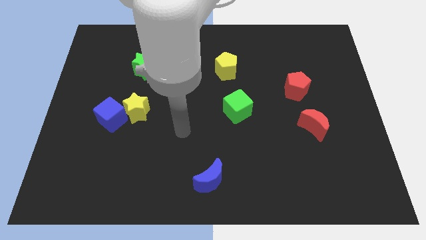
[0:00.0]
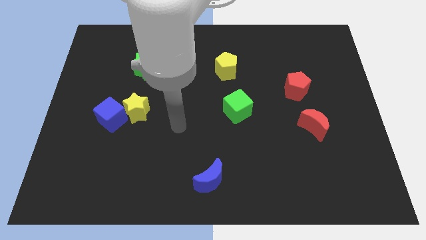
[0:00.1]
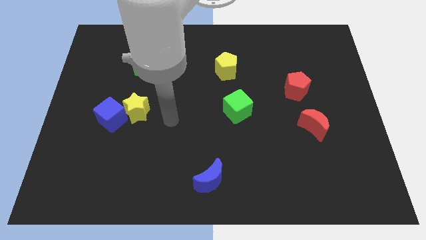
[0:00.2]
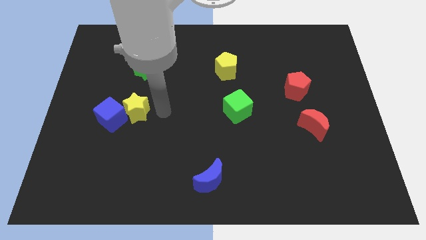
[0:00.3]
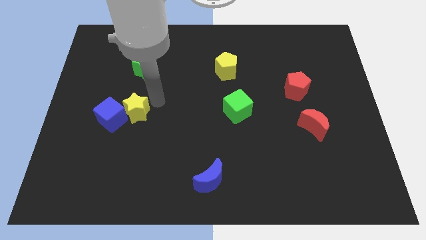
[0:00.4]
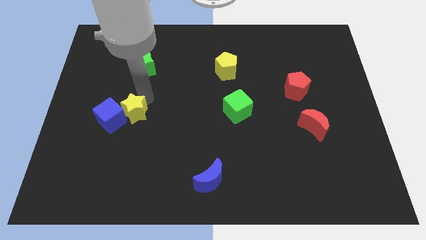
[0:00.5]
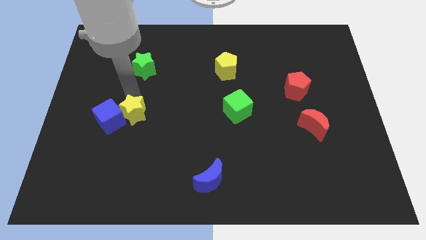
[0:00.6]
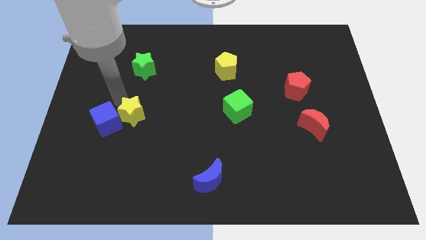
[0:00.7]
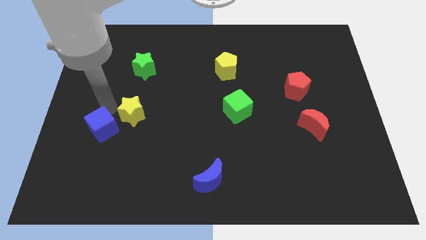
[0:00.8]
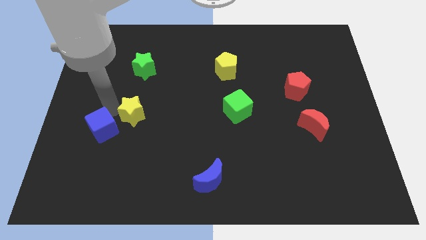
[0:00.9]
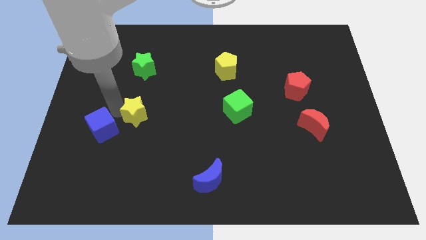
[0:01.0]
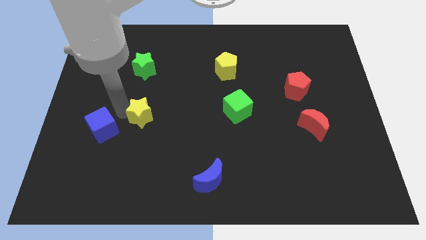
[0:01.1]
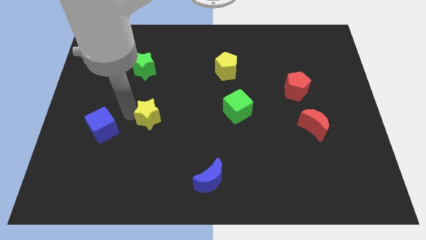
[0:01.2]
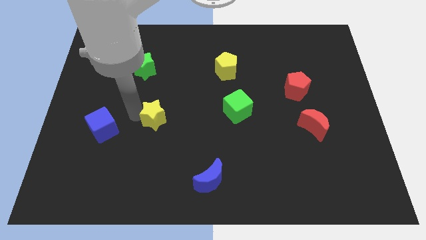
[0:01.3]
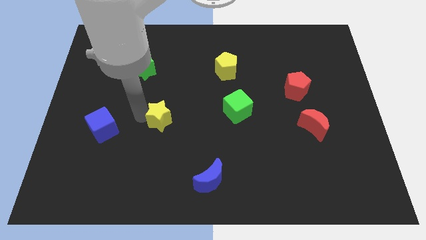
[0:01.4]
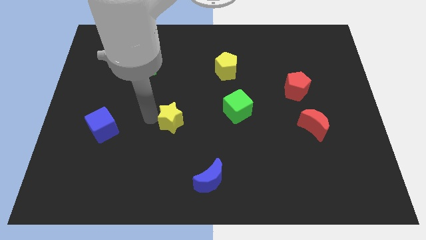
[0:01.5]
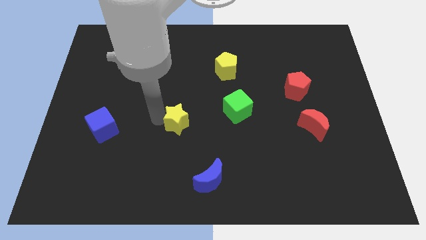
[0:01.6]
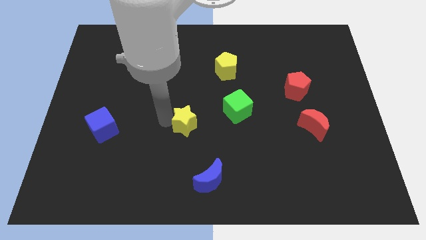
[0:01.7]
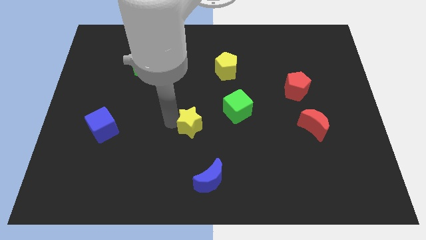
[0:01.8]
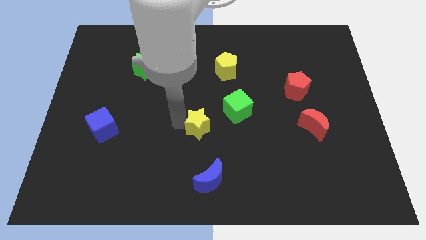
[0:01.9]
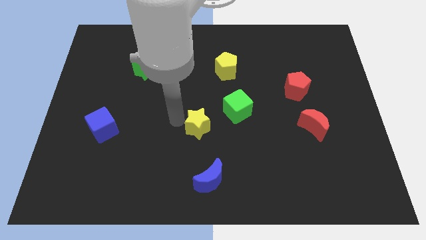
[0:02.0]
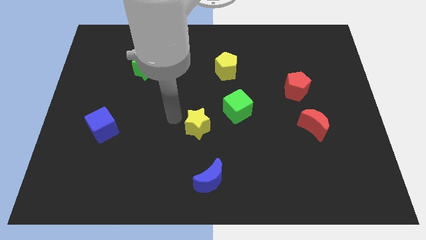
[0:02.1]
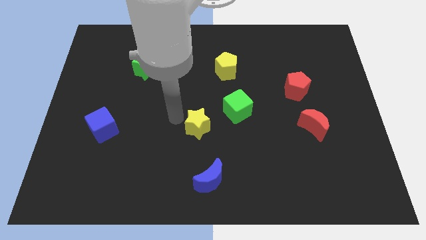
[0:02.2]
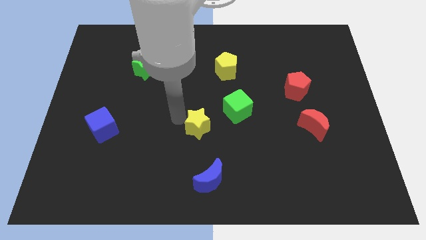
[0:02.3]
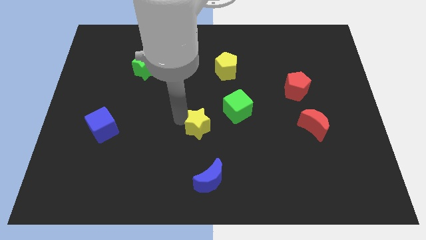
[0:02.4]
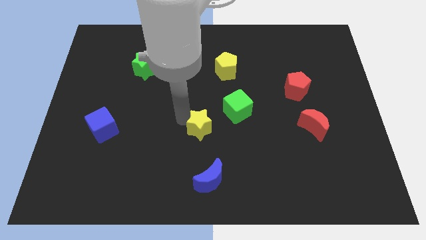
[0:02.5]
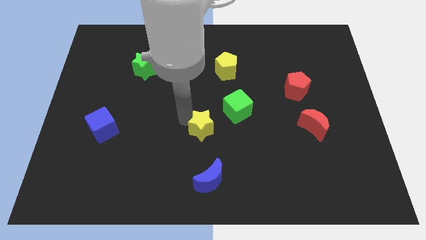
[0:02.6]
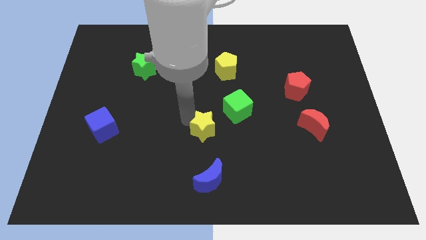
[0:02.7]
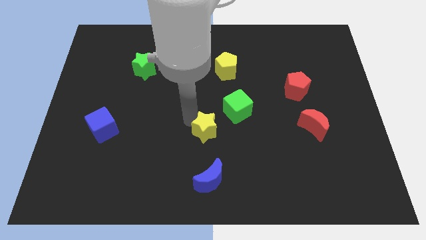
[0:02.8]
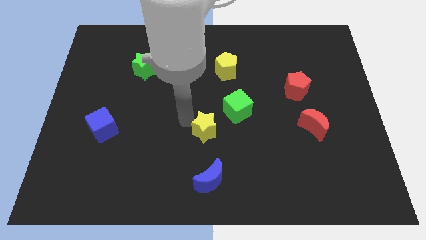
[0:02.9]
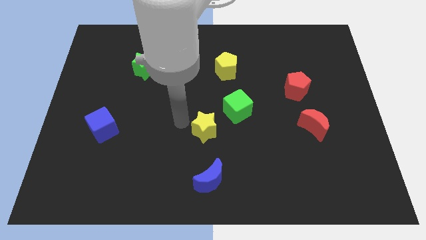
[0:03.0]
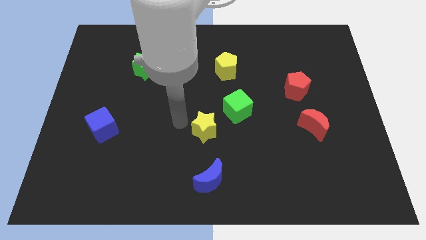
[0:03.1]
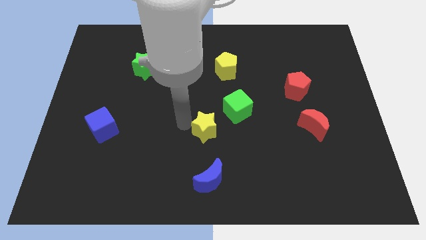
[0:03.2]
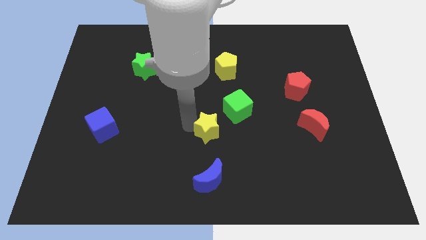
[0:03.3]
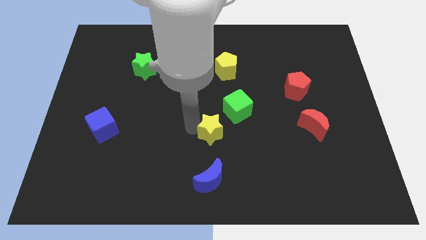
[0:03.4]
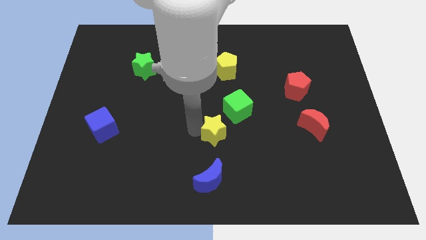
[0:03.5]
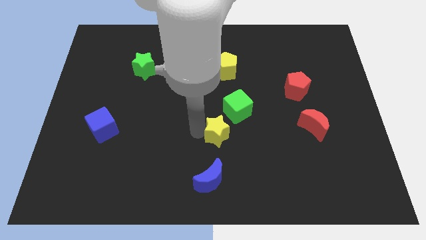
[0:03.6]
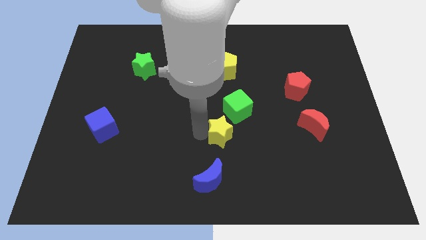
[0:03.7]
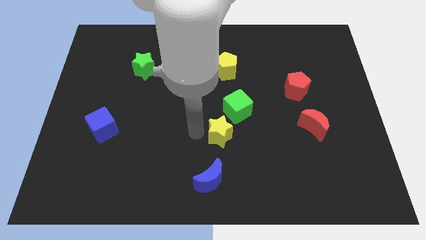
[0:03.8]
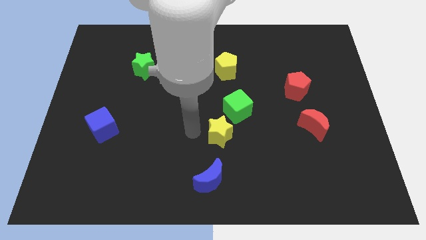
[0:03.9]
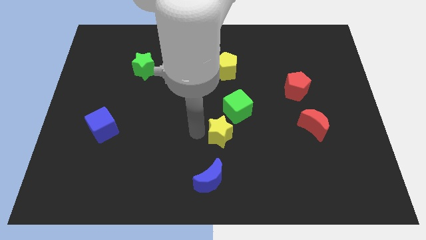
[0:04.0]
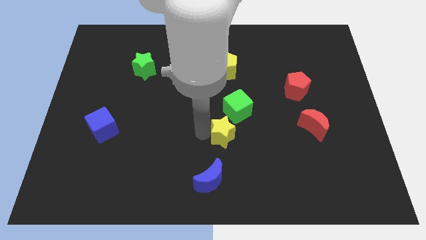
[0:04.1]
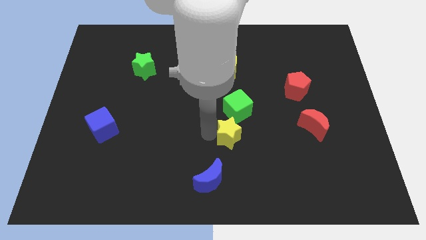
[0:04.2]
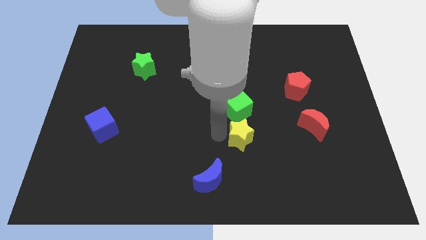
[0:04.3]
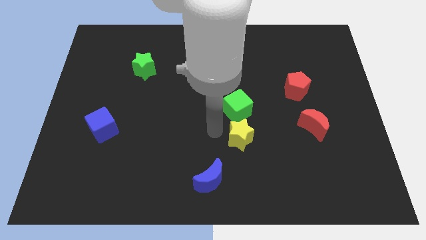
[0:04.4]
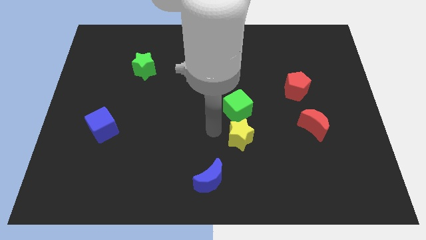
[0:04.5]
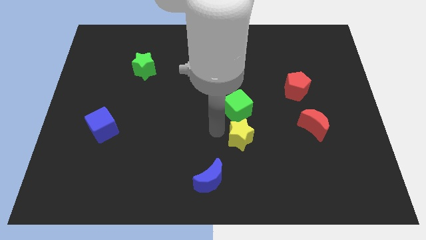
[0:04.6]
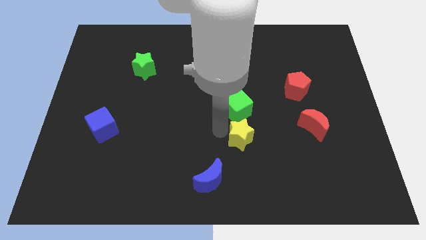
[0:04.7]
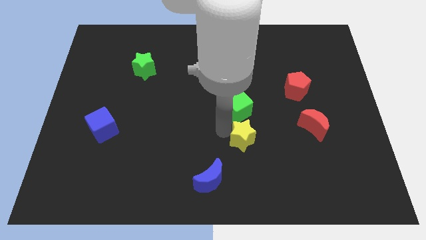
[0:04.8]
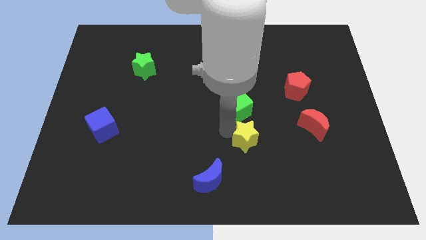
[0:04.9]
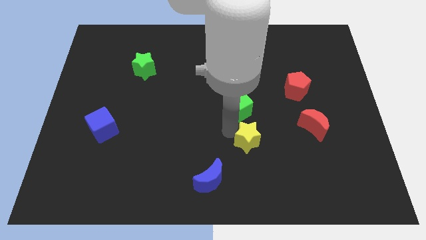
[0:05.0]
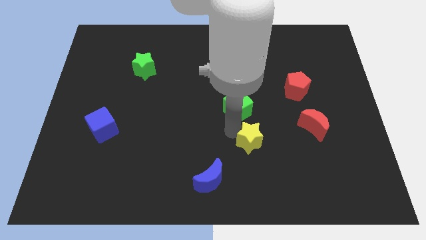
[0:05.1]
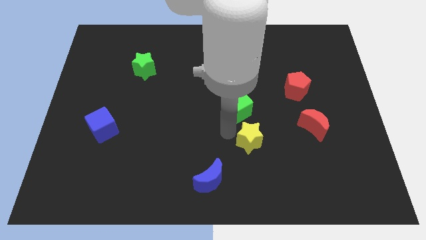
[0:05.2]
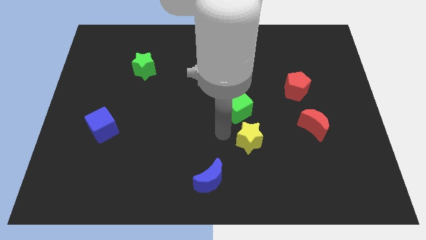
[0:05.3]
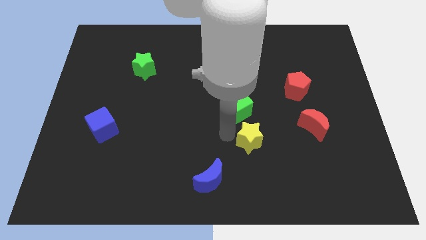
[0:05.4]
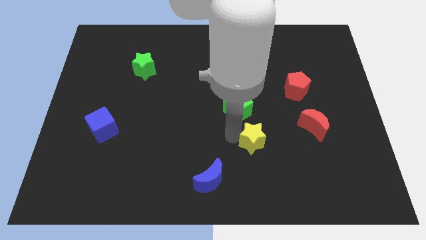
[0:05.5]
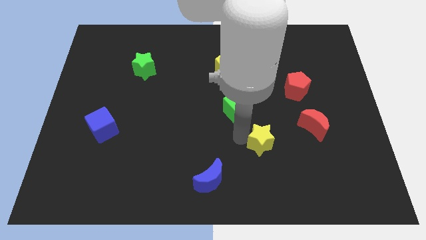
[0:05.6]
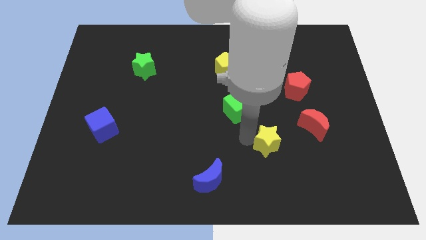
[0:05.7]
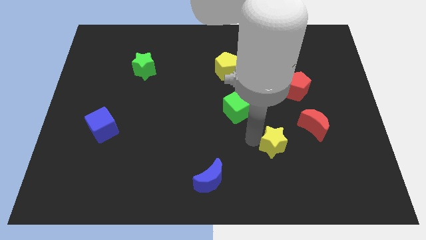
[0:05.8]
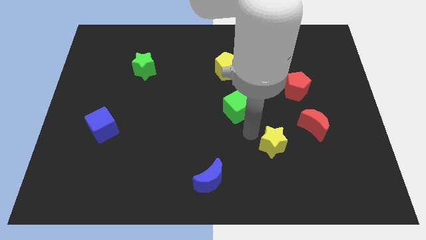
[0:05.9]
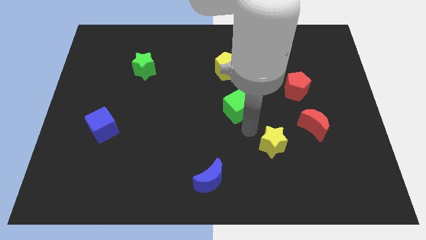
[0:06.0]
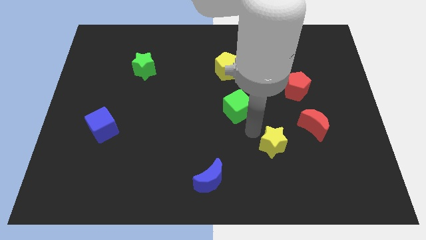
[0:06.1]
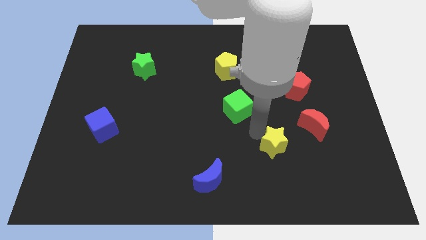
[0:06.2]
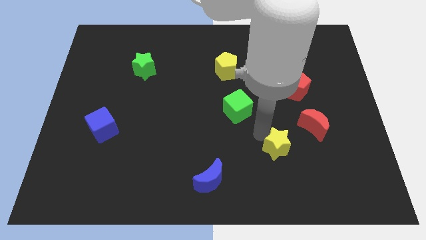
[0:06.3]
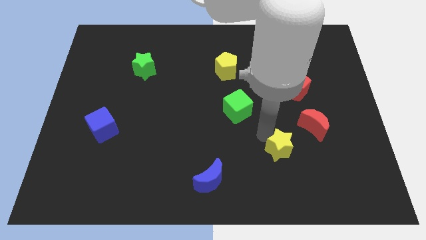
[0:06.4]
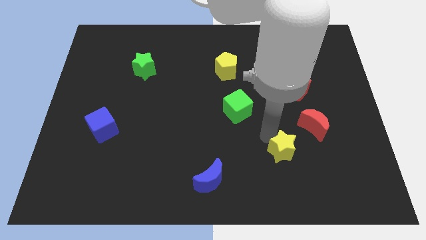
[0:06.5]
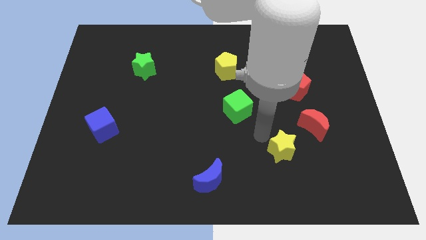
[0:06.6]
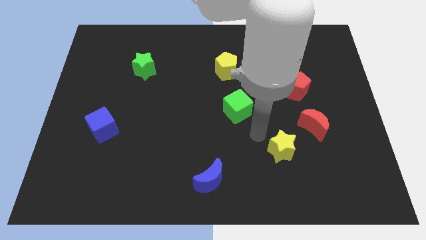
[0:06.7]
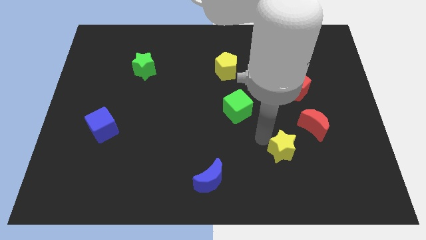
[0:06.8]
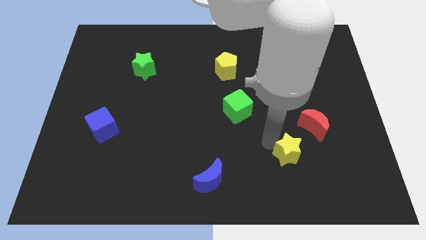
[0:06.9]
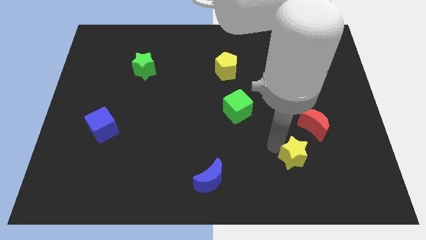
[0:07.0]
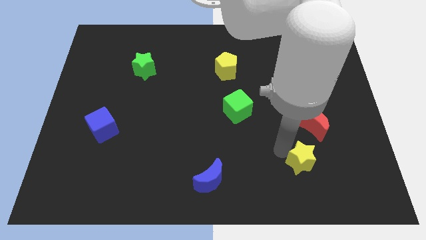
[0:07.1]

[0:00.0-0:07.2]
move the yellow star below the red moon
